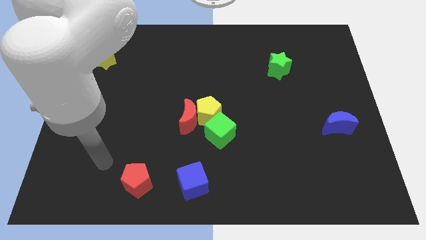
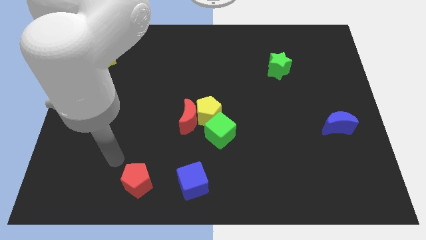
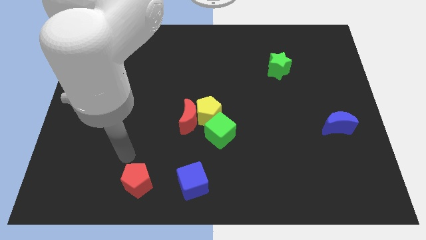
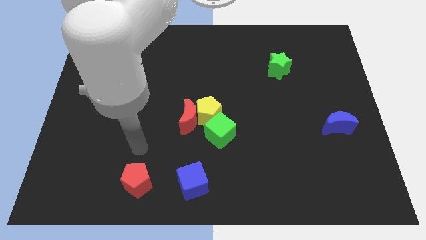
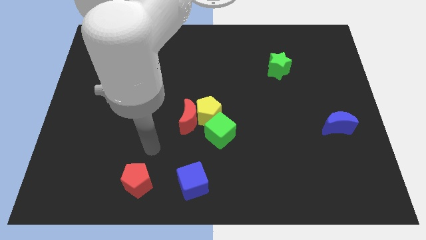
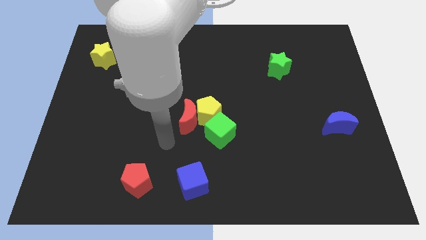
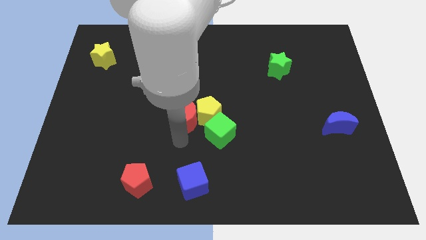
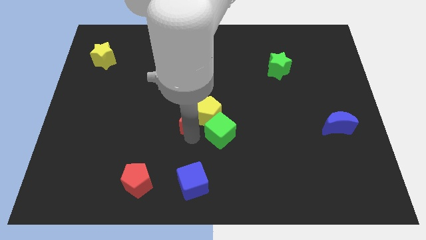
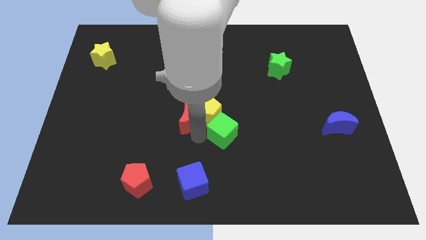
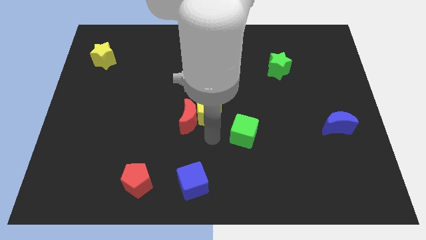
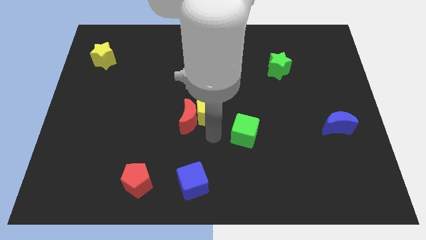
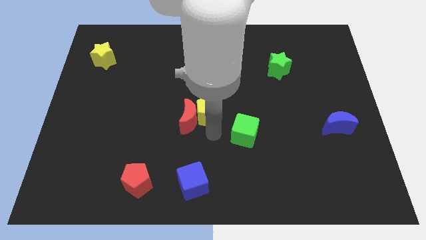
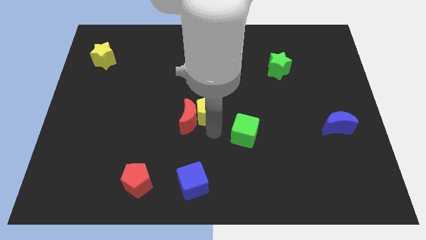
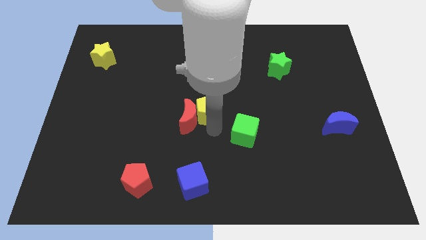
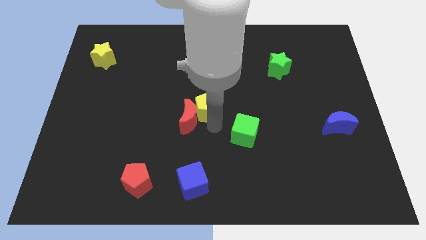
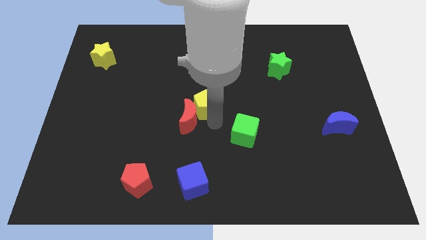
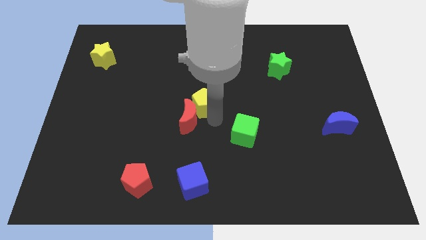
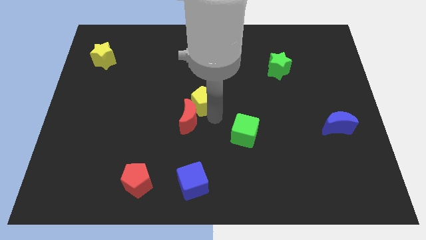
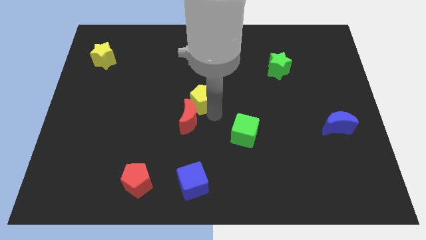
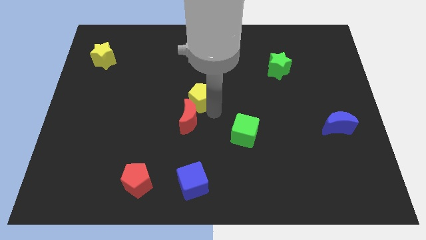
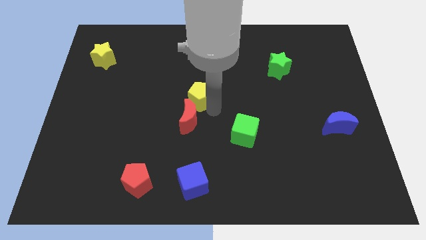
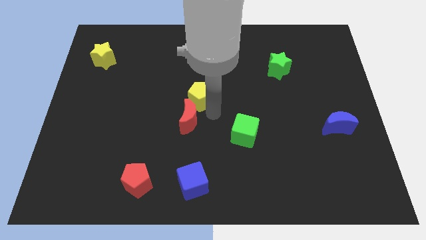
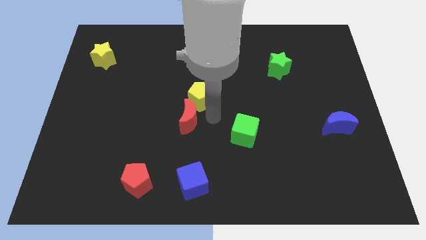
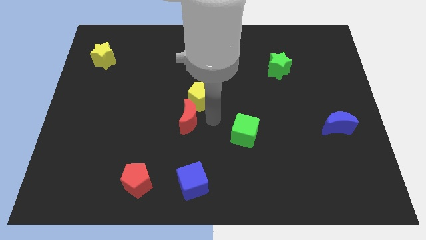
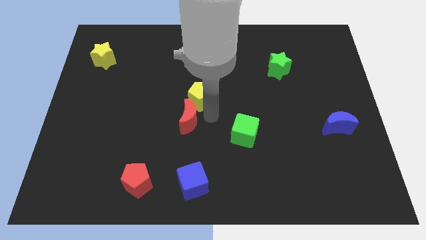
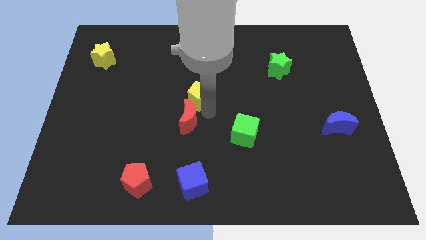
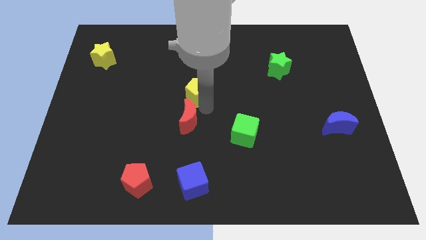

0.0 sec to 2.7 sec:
pull the yellow pentagon apart from the red moon and green cube

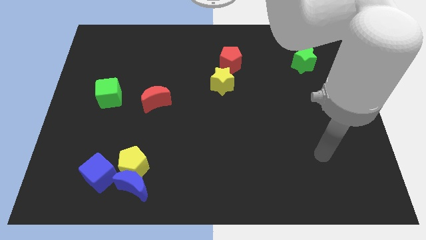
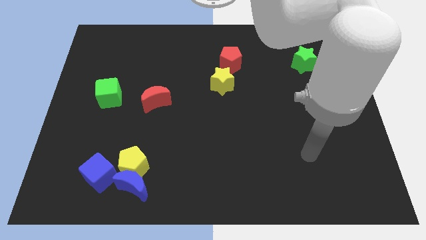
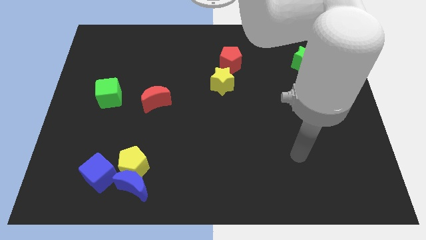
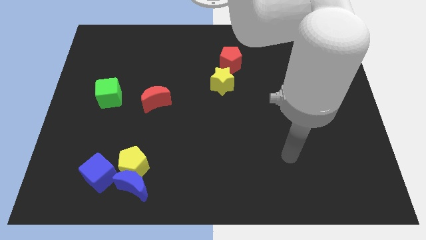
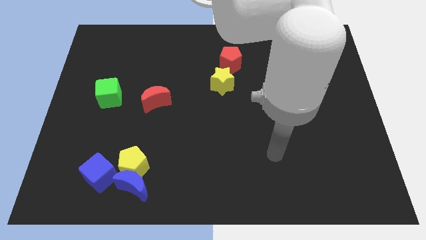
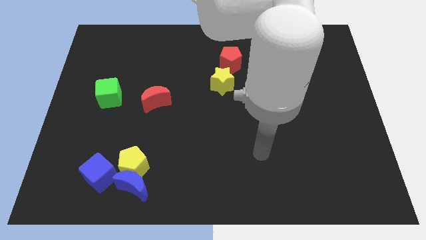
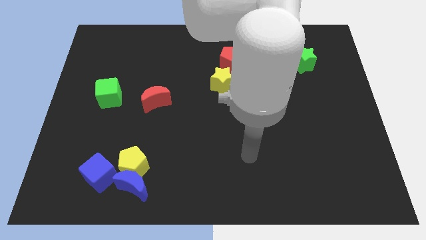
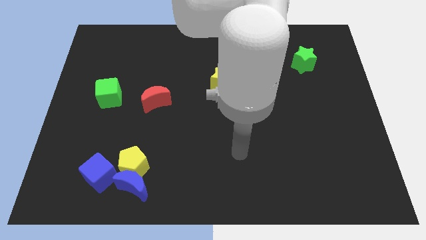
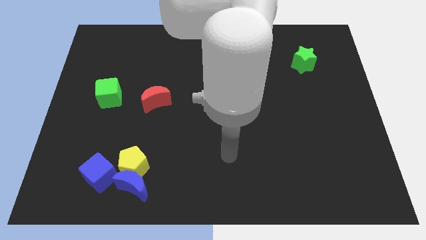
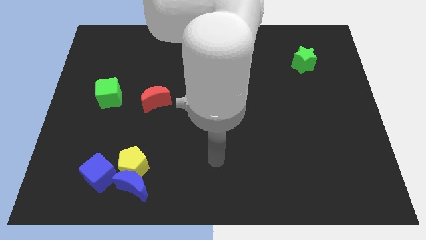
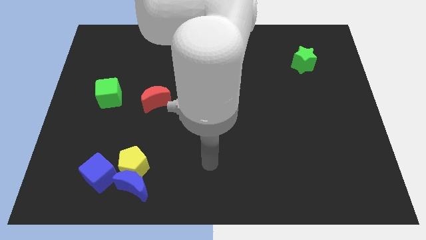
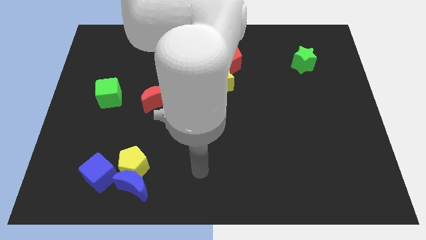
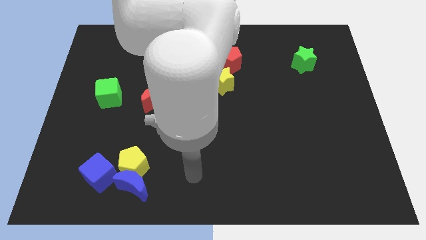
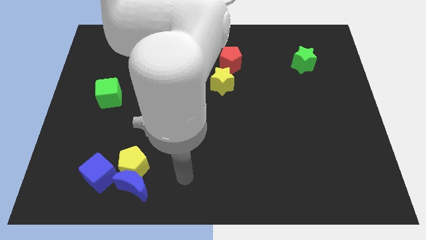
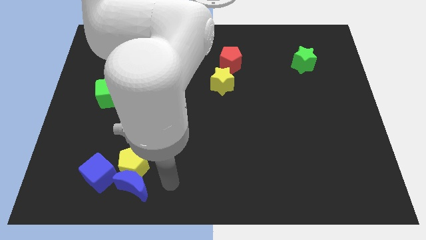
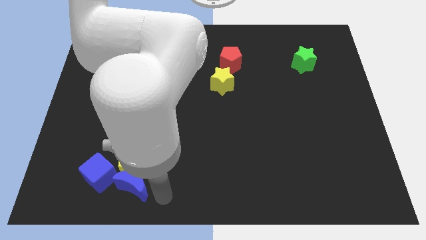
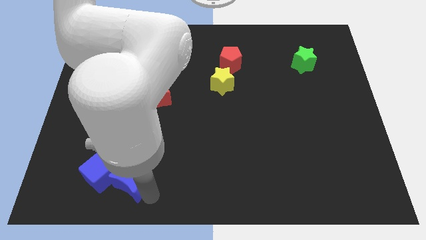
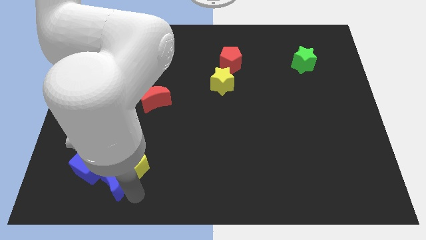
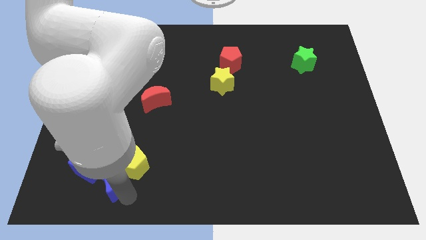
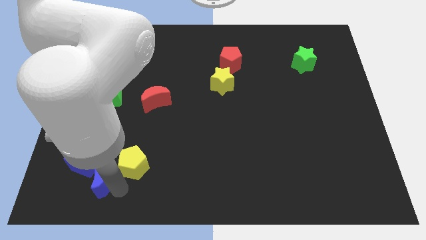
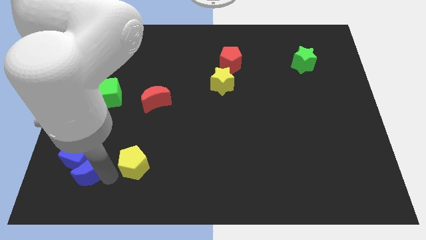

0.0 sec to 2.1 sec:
pull the yellow pentagon apart from the blue moon and blue cube

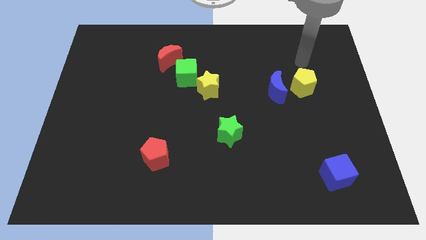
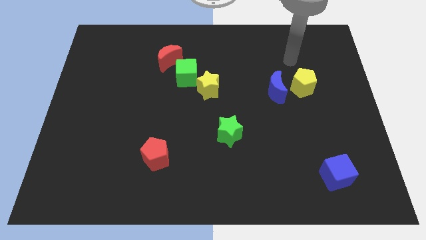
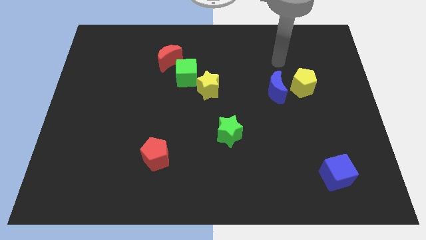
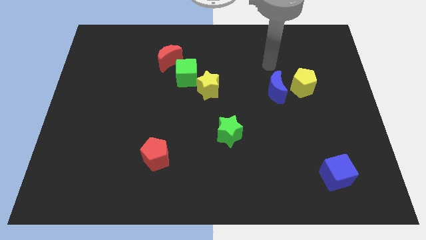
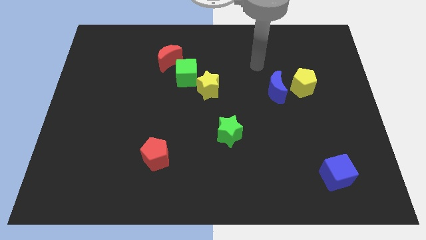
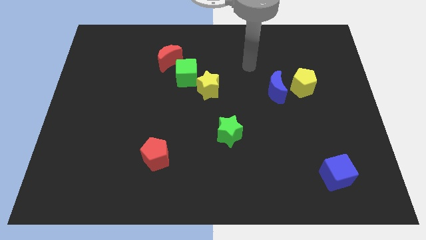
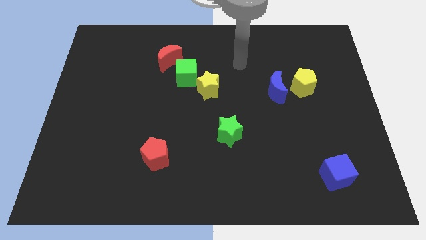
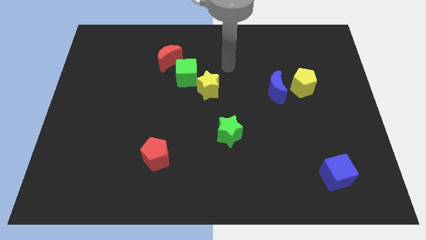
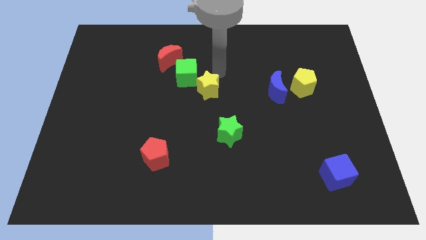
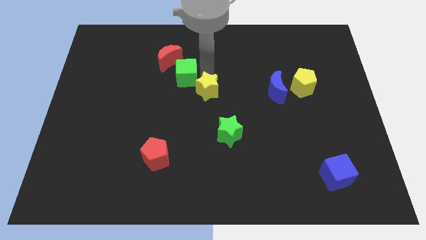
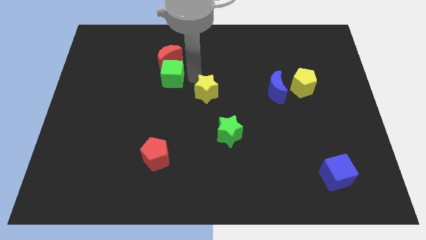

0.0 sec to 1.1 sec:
separate the yellow star from the green cube

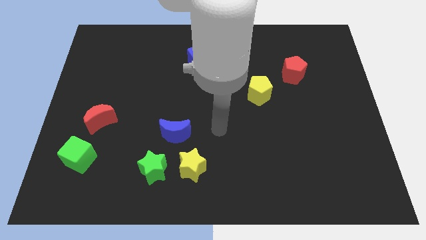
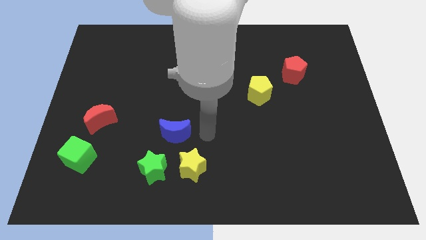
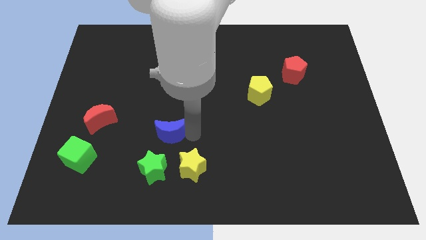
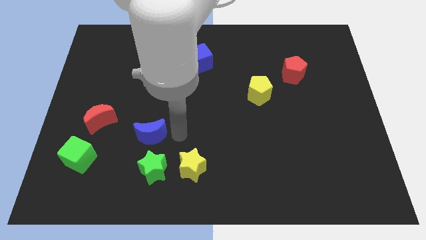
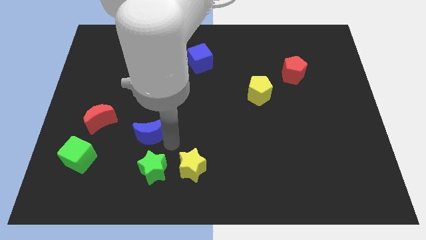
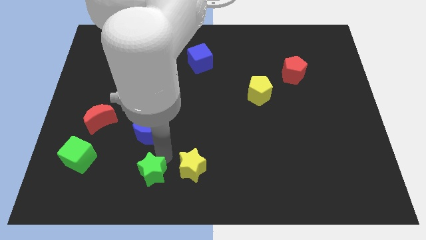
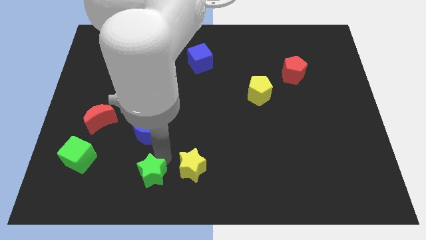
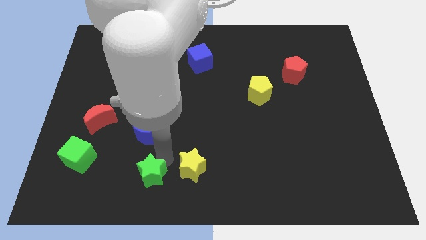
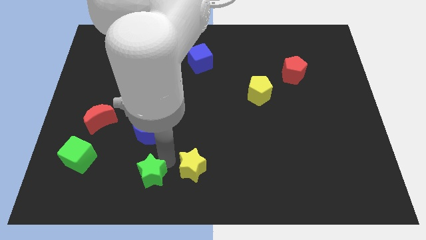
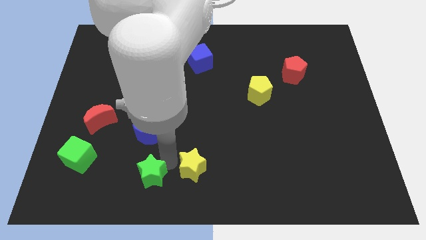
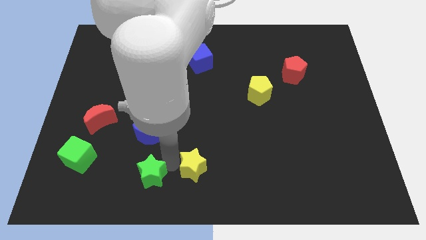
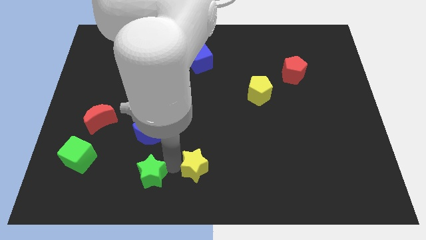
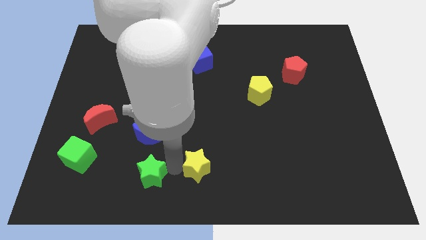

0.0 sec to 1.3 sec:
pull the yellow star apart from the green star and blue moon

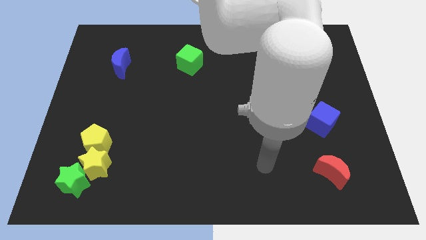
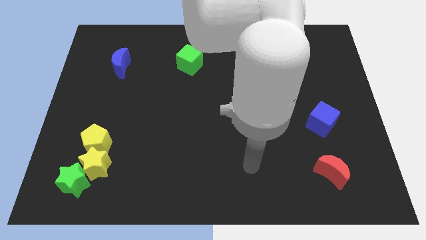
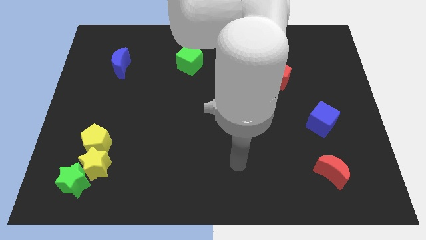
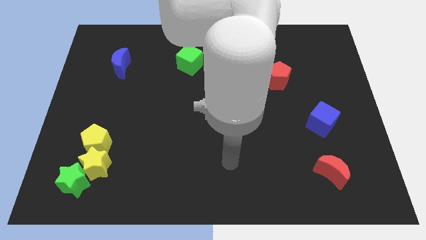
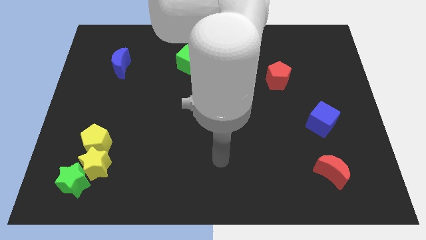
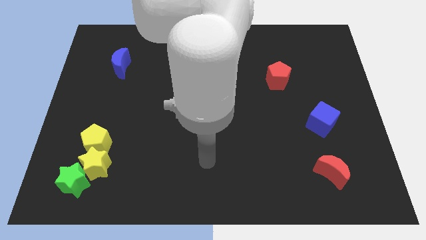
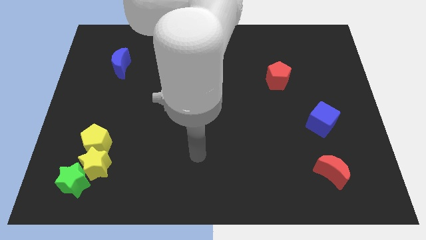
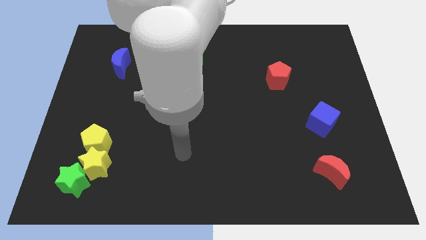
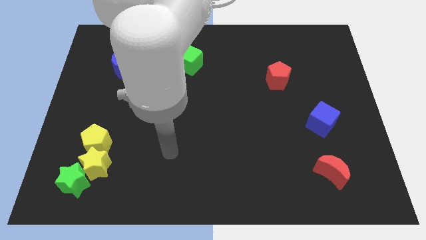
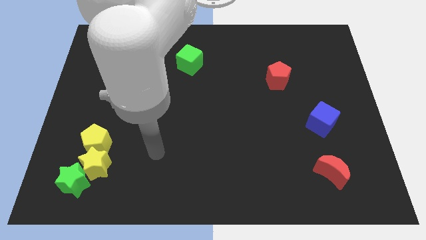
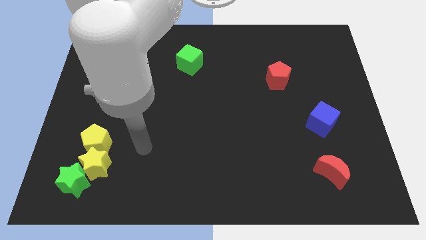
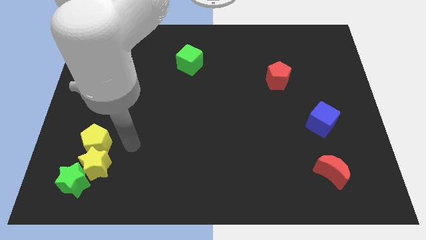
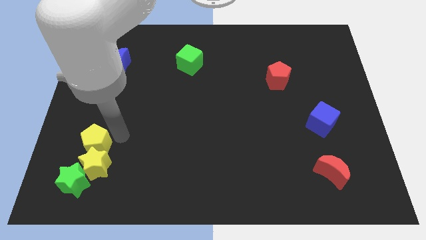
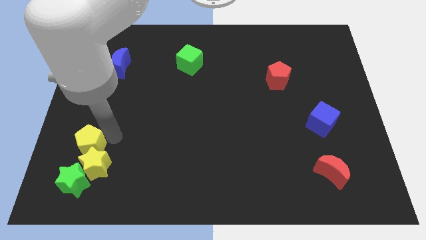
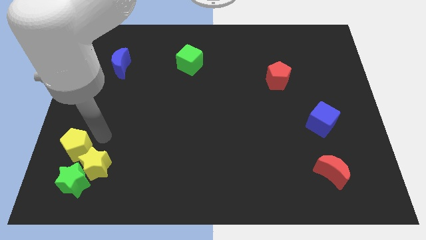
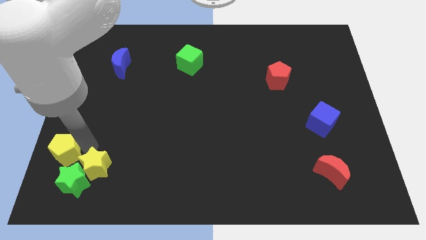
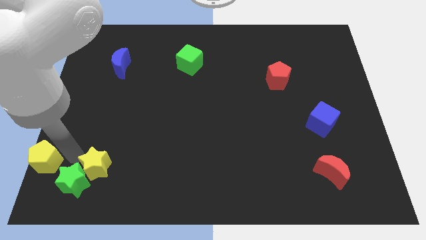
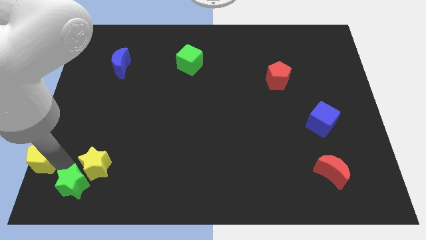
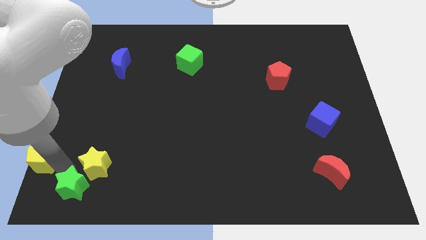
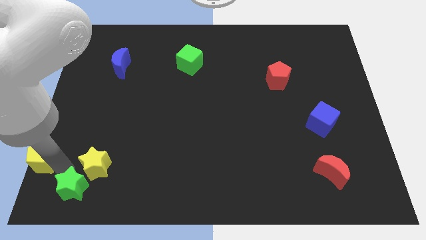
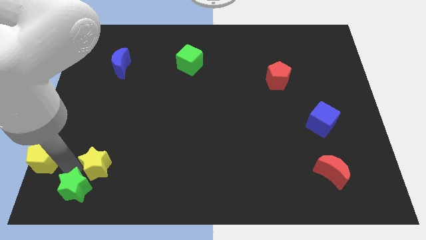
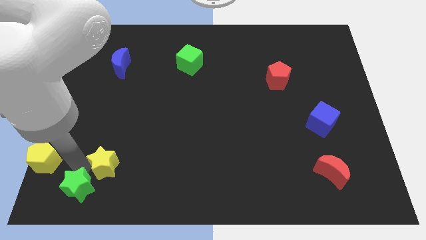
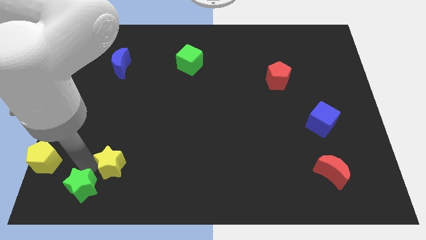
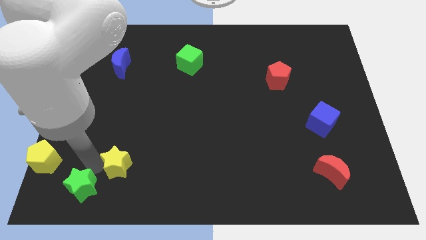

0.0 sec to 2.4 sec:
separate the yellow star from the green star and yellow pentagon
